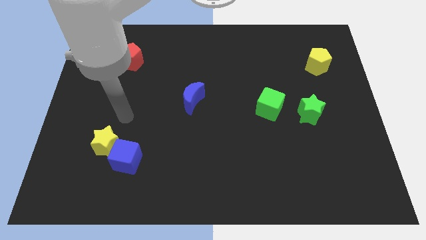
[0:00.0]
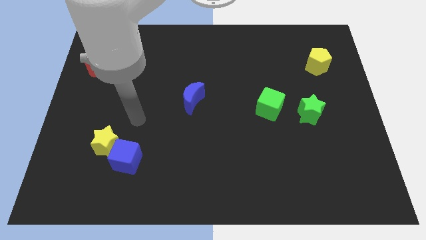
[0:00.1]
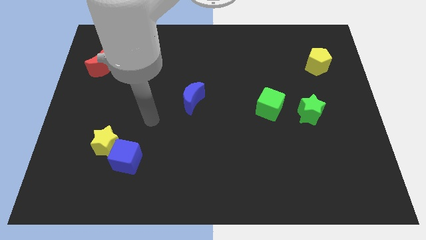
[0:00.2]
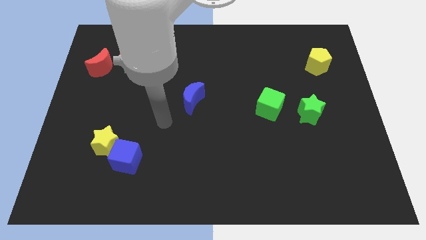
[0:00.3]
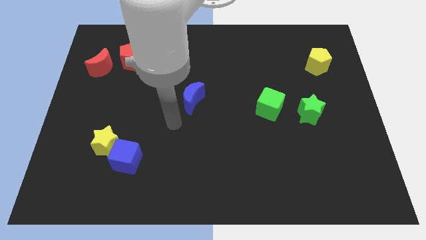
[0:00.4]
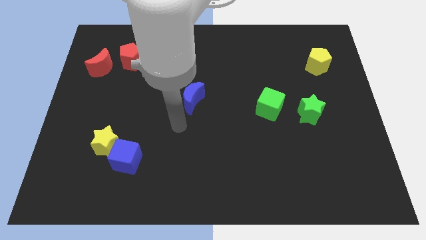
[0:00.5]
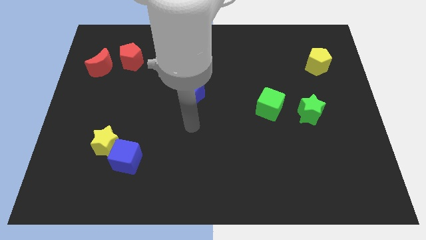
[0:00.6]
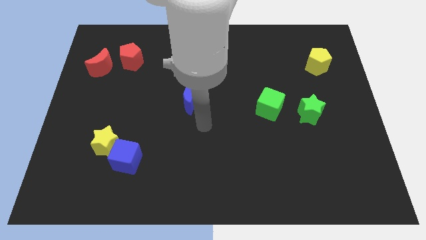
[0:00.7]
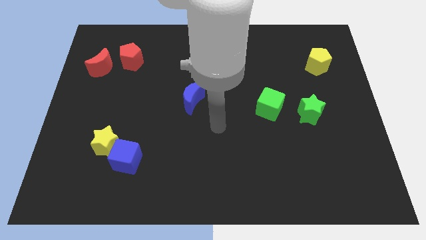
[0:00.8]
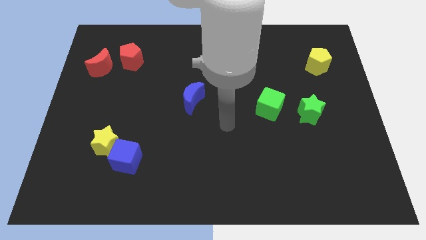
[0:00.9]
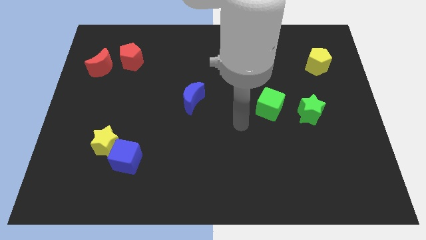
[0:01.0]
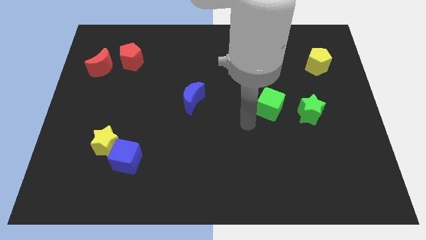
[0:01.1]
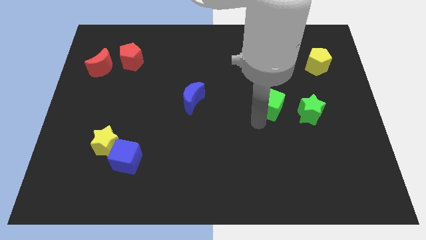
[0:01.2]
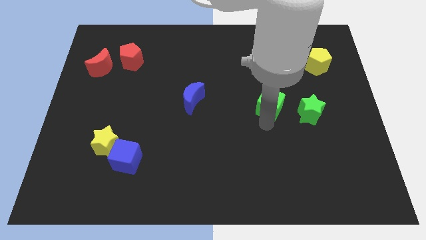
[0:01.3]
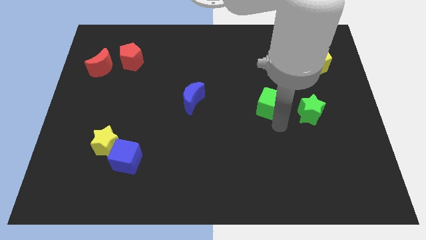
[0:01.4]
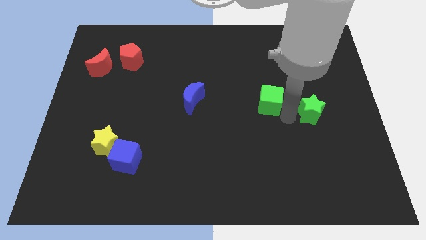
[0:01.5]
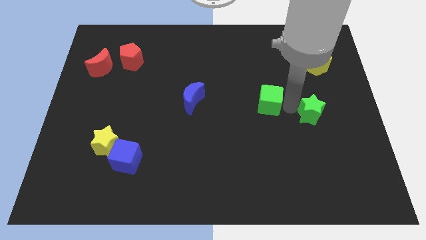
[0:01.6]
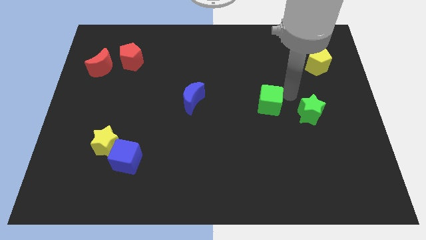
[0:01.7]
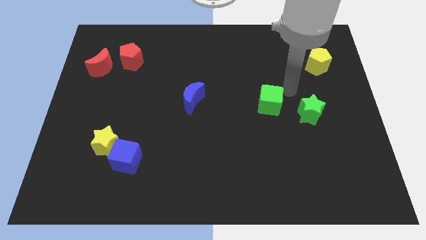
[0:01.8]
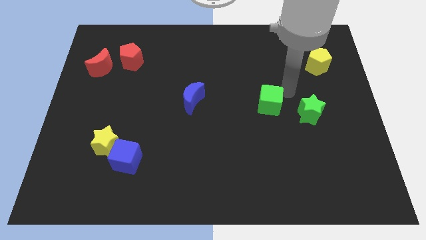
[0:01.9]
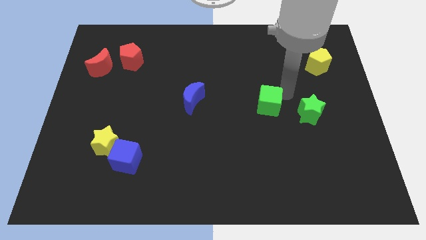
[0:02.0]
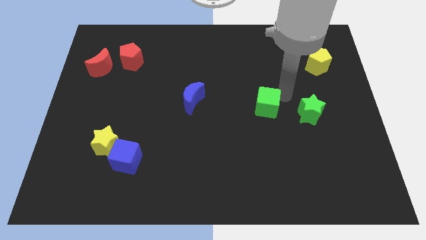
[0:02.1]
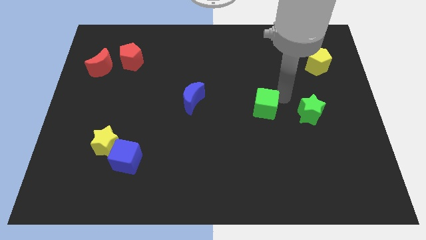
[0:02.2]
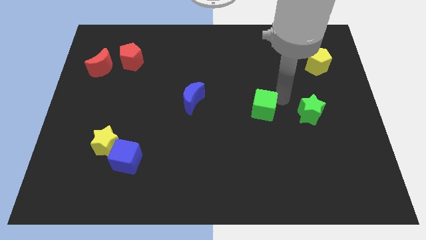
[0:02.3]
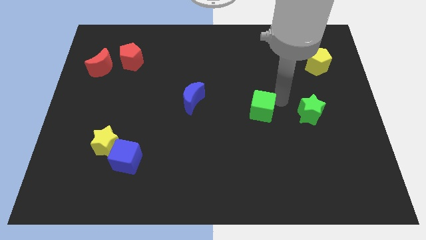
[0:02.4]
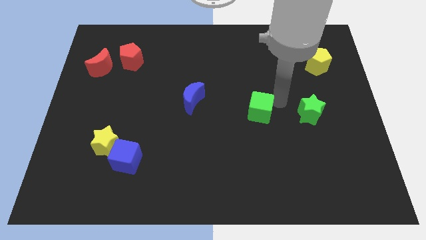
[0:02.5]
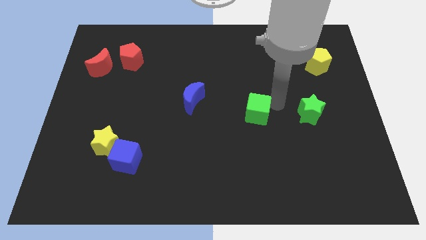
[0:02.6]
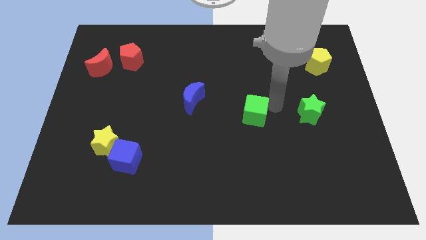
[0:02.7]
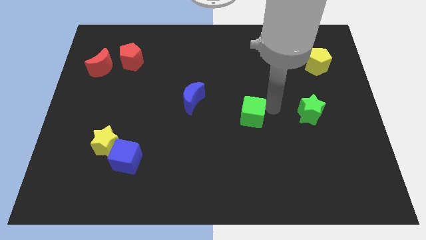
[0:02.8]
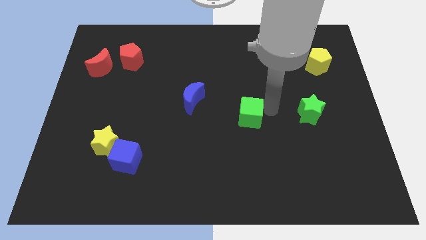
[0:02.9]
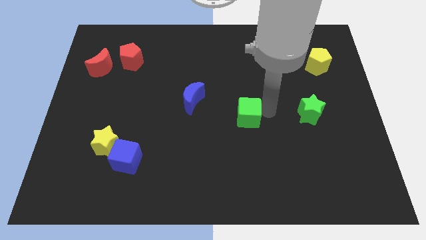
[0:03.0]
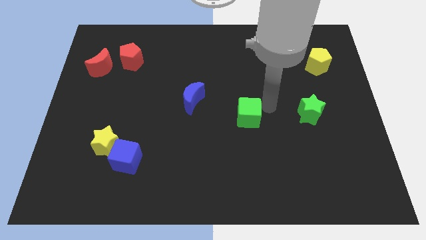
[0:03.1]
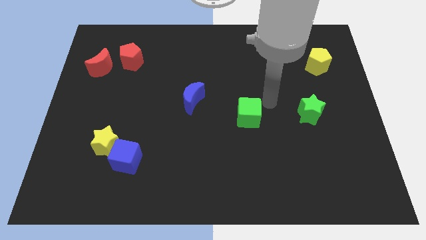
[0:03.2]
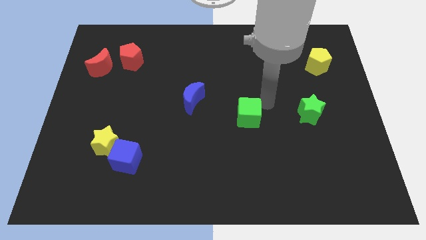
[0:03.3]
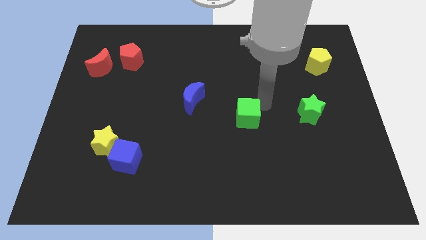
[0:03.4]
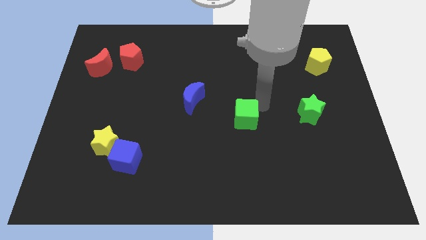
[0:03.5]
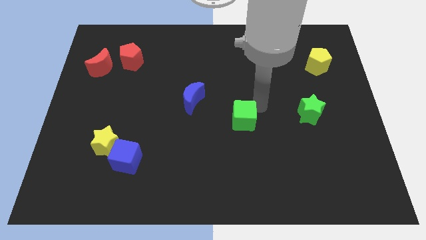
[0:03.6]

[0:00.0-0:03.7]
slightly slide the green cube downwards and to the left

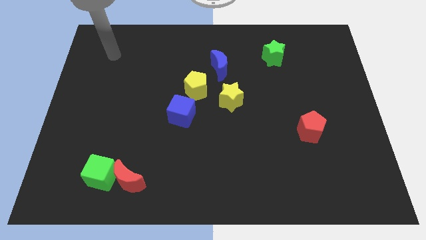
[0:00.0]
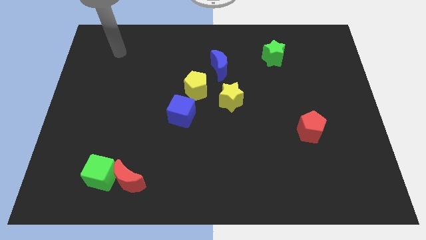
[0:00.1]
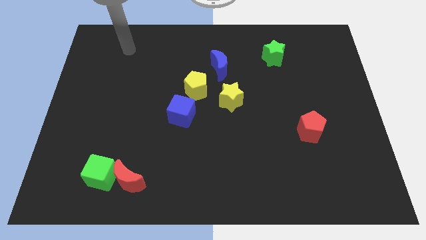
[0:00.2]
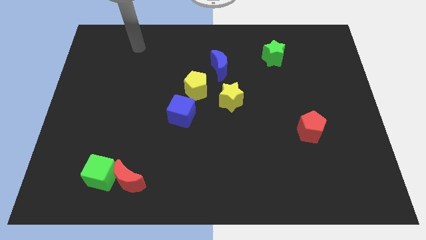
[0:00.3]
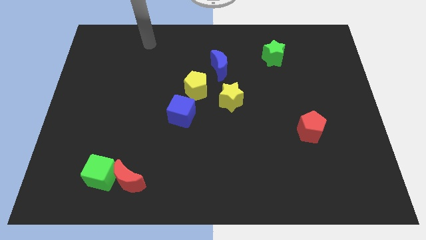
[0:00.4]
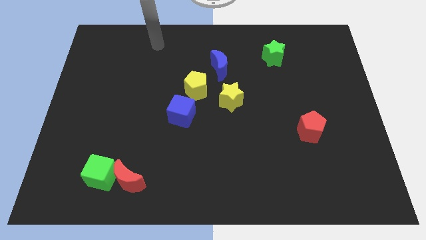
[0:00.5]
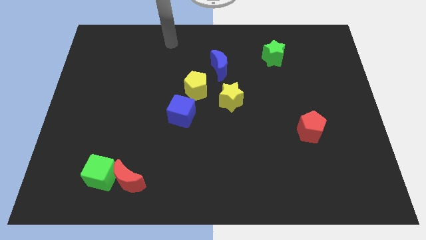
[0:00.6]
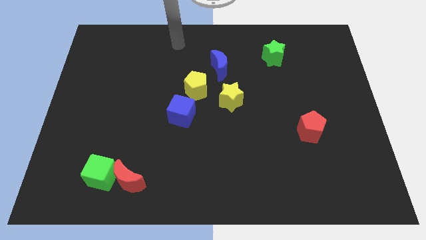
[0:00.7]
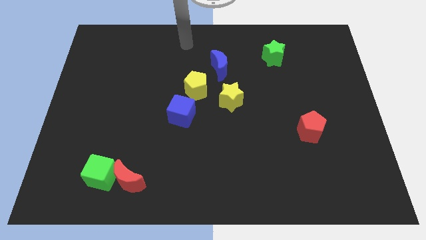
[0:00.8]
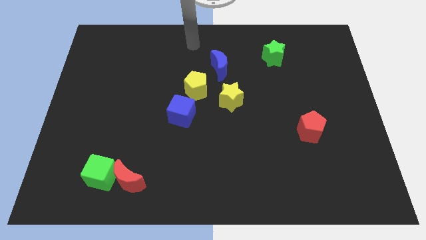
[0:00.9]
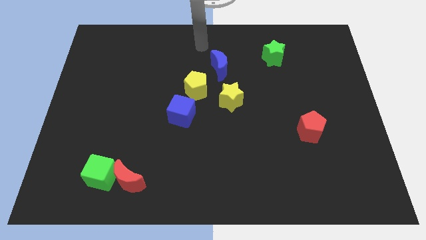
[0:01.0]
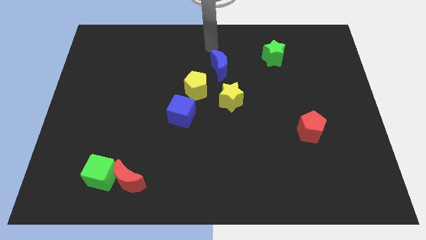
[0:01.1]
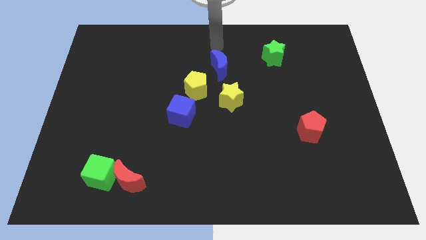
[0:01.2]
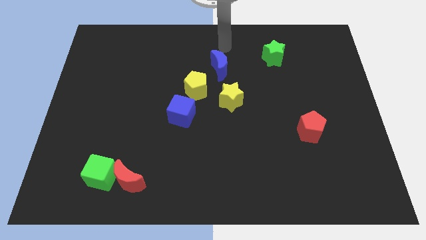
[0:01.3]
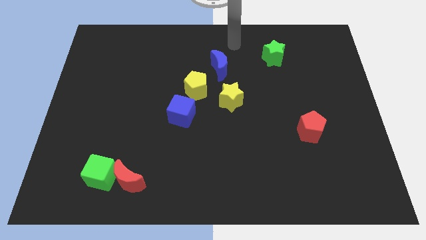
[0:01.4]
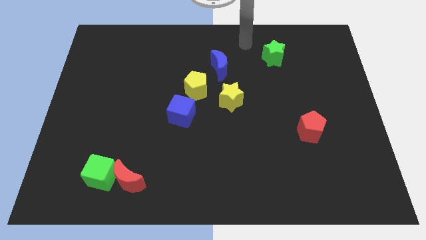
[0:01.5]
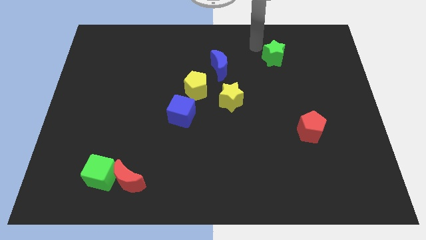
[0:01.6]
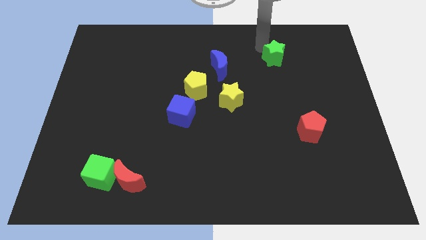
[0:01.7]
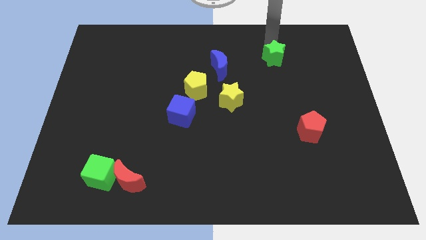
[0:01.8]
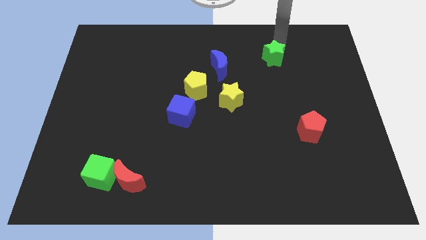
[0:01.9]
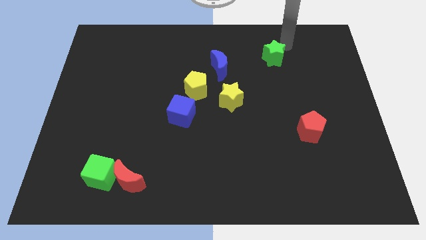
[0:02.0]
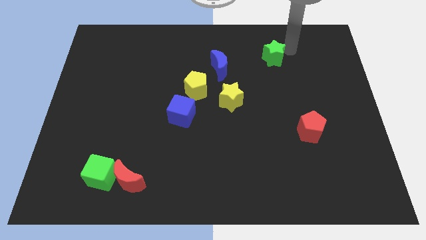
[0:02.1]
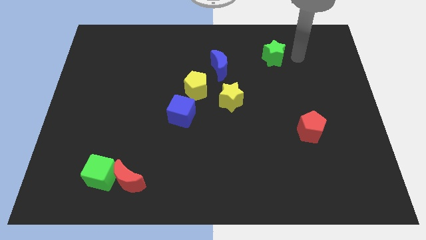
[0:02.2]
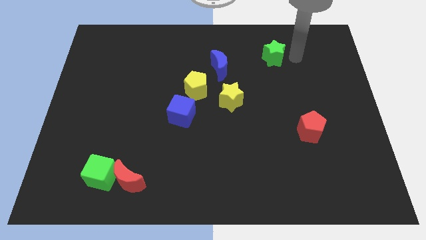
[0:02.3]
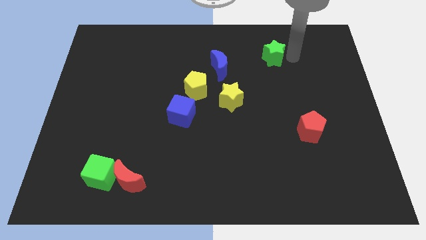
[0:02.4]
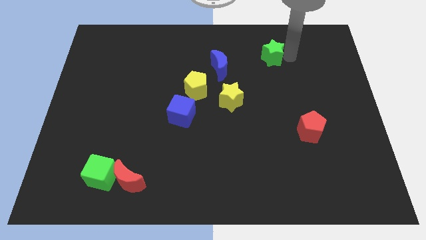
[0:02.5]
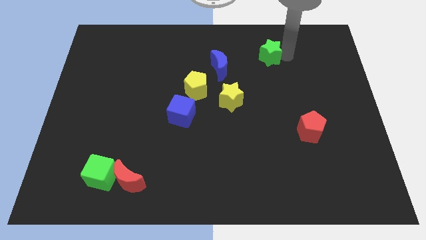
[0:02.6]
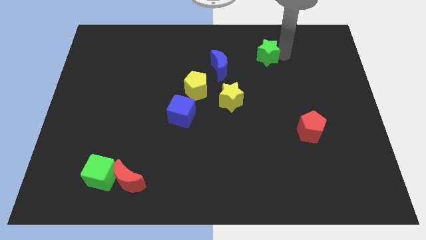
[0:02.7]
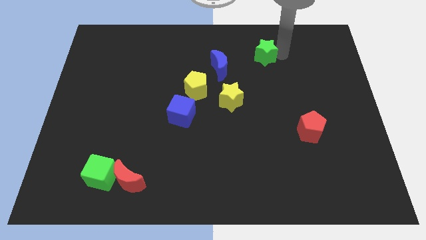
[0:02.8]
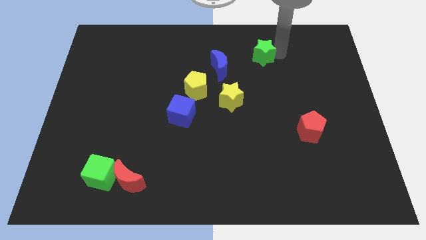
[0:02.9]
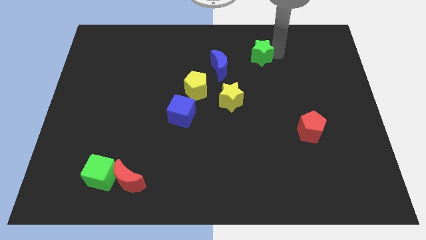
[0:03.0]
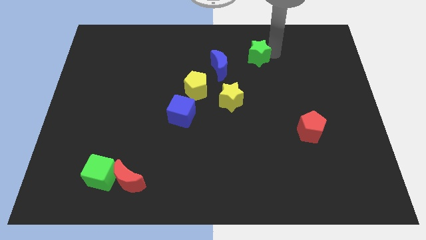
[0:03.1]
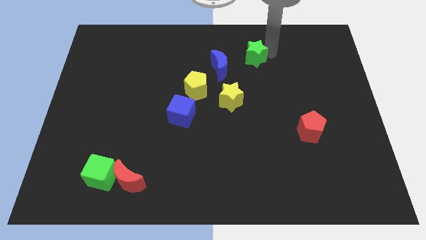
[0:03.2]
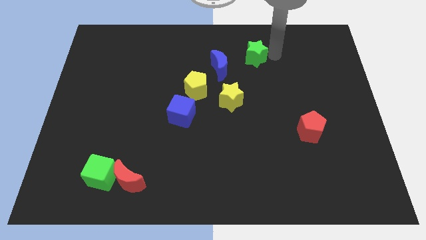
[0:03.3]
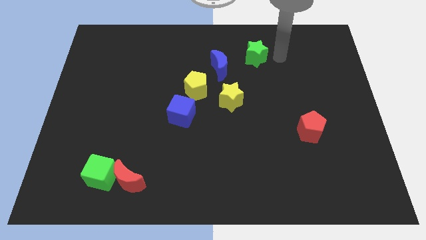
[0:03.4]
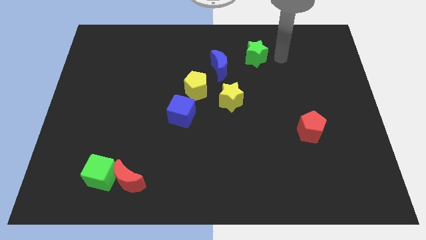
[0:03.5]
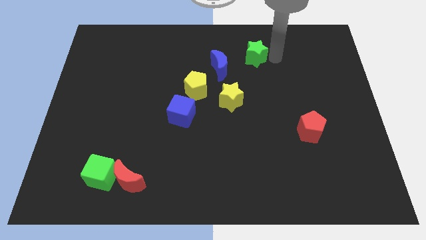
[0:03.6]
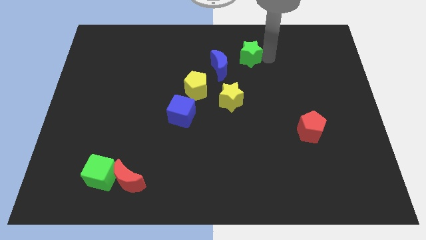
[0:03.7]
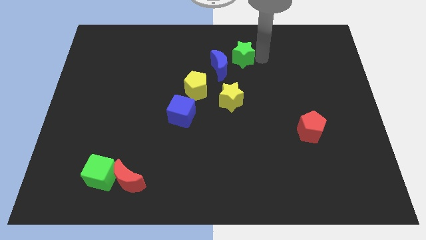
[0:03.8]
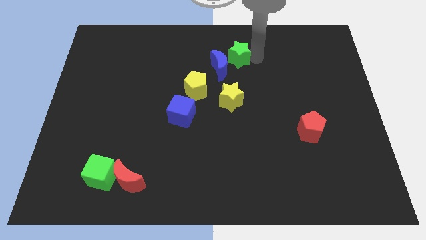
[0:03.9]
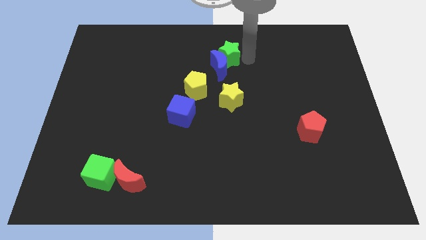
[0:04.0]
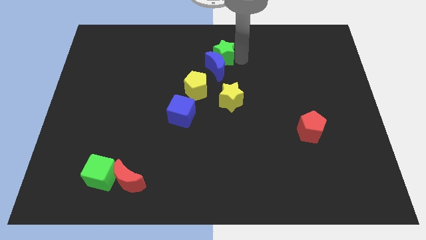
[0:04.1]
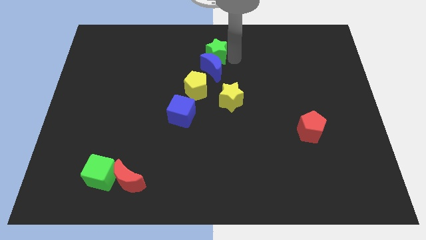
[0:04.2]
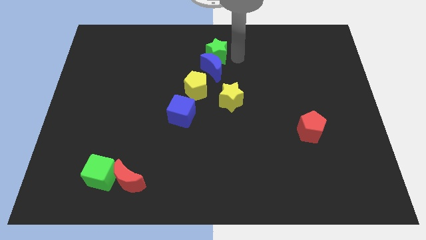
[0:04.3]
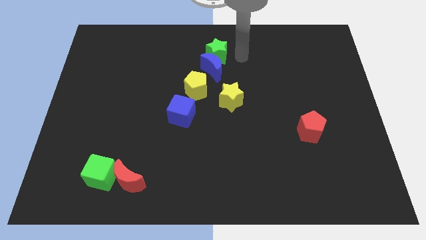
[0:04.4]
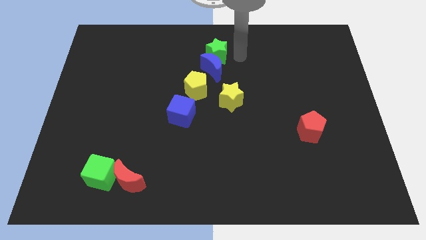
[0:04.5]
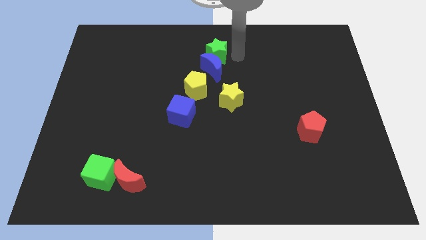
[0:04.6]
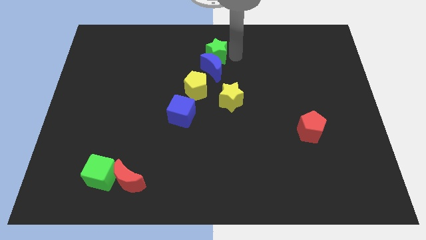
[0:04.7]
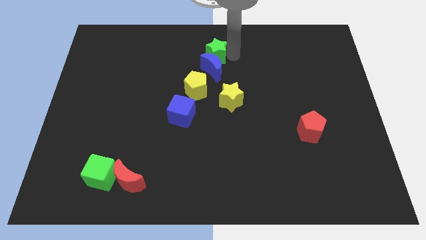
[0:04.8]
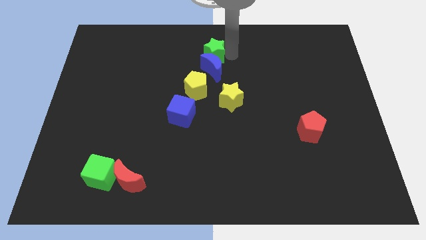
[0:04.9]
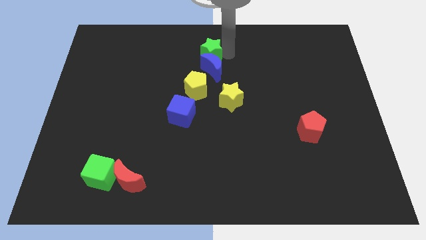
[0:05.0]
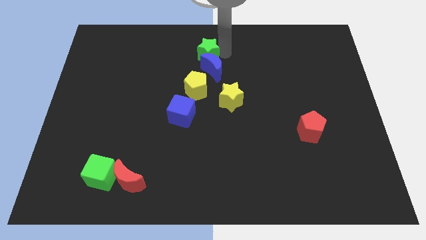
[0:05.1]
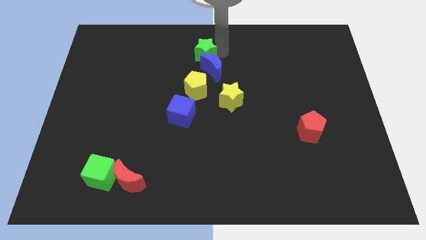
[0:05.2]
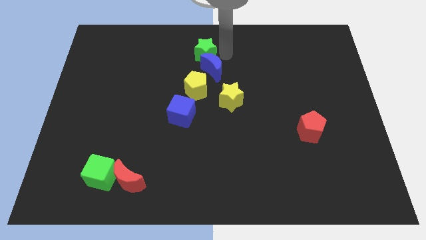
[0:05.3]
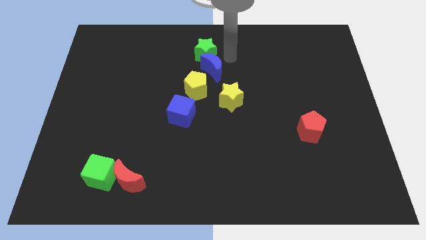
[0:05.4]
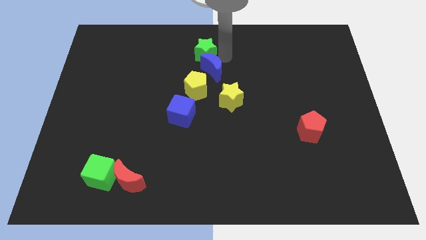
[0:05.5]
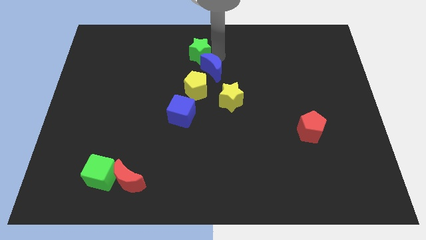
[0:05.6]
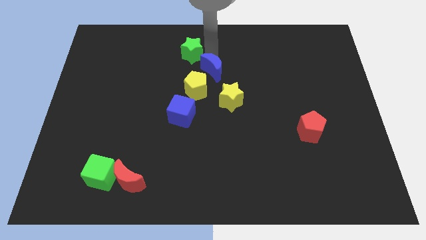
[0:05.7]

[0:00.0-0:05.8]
push the green star to the left
